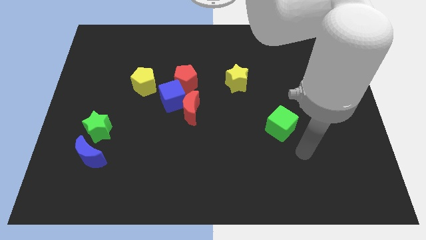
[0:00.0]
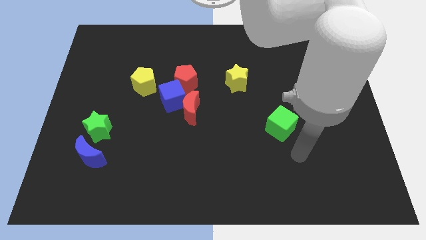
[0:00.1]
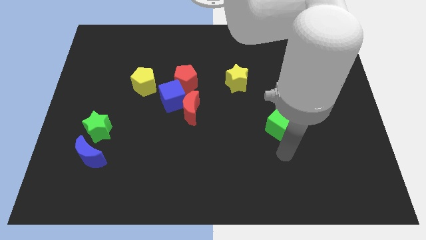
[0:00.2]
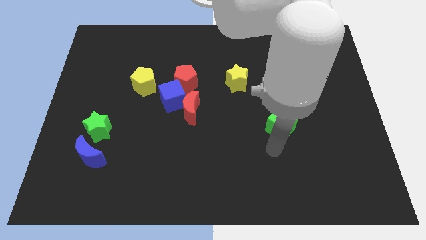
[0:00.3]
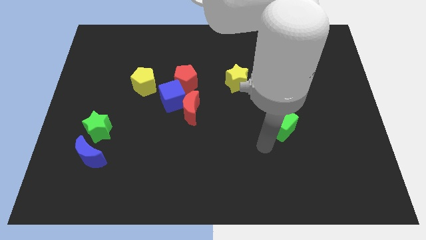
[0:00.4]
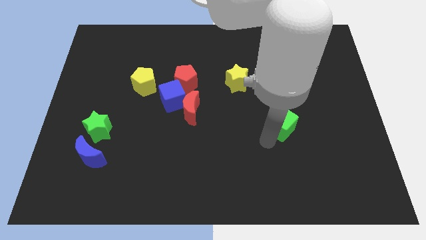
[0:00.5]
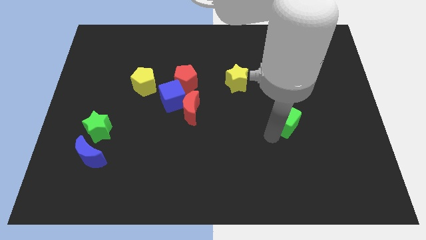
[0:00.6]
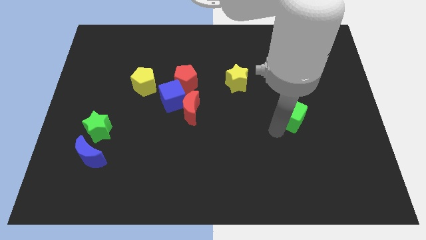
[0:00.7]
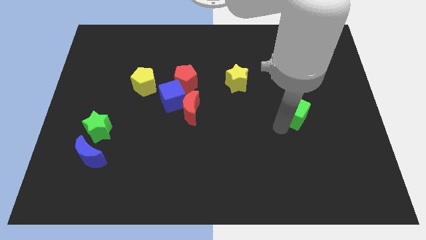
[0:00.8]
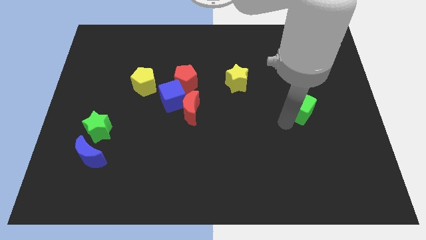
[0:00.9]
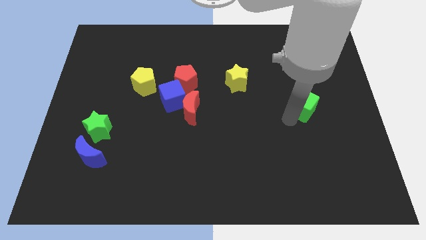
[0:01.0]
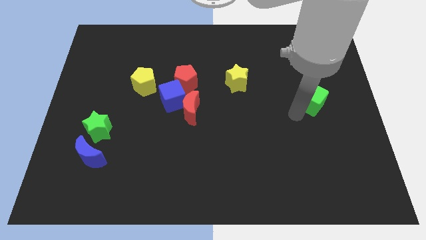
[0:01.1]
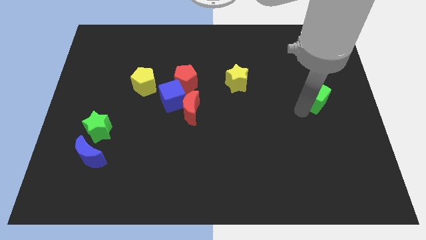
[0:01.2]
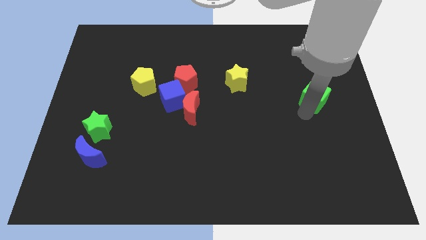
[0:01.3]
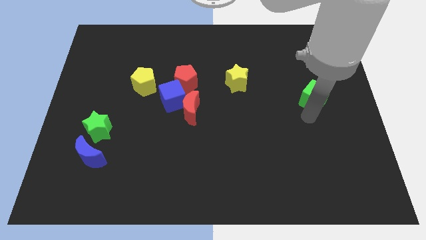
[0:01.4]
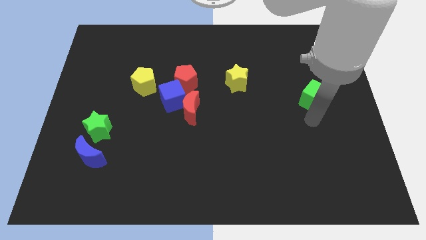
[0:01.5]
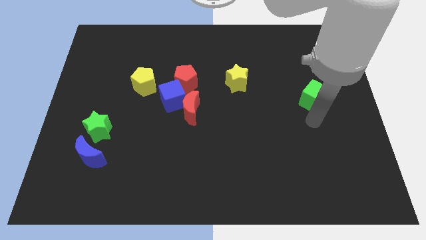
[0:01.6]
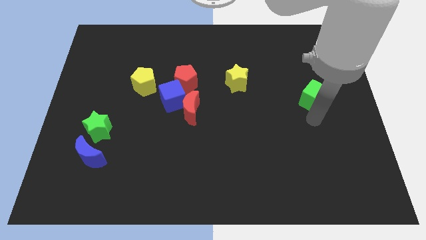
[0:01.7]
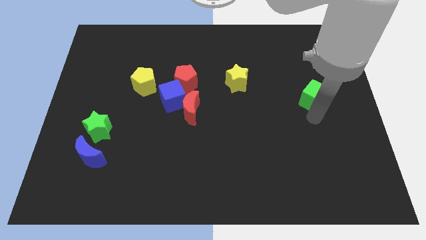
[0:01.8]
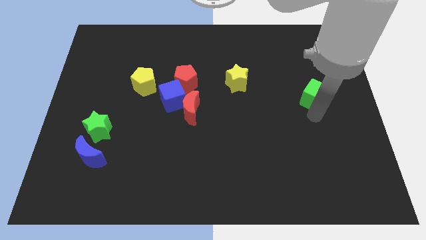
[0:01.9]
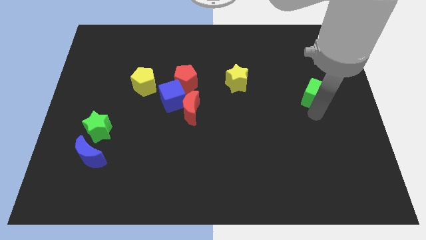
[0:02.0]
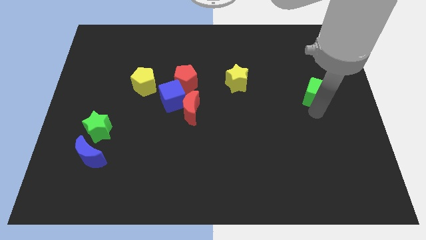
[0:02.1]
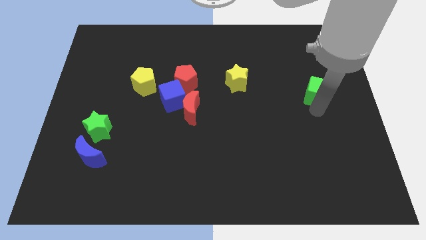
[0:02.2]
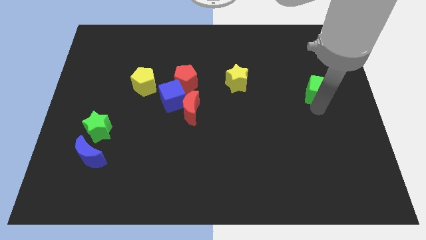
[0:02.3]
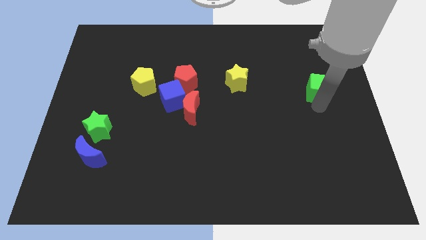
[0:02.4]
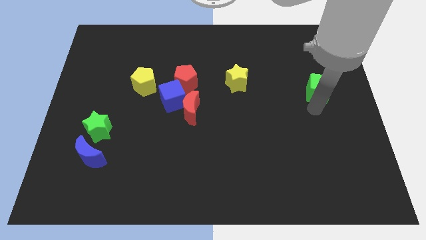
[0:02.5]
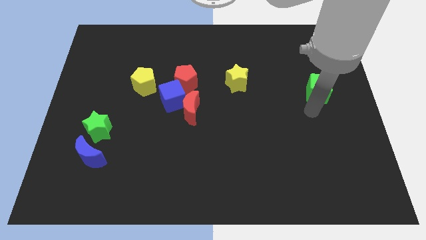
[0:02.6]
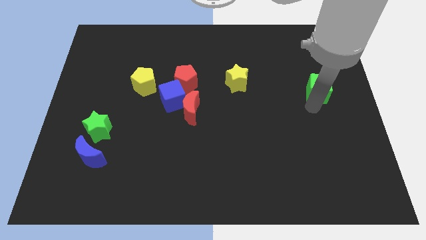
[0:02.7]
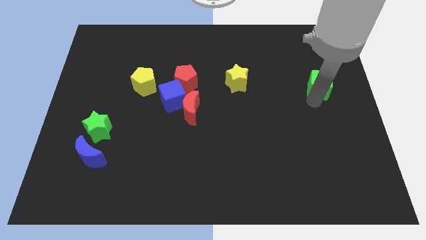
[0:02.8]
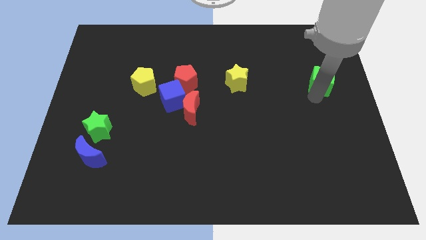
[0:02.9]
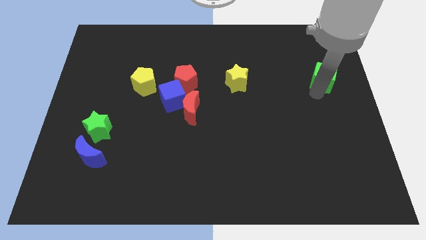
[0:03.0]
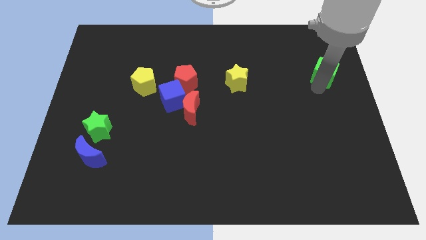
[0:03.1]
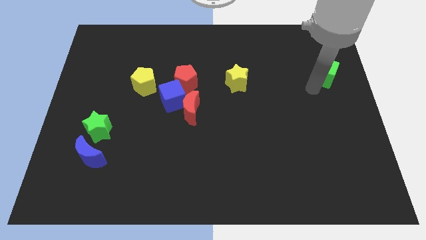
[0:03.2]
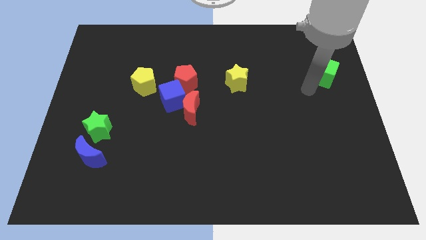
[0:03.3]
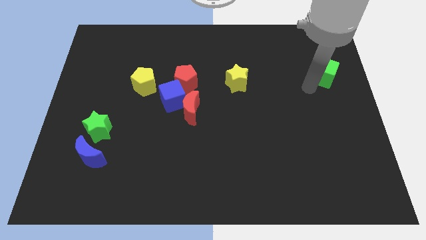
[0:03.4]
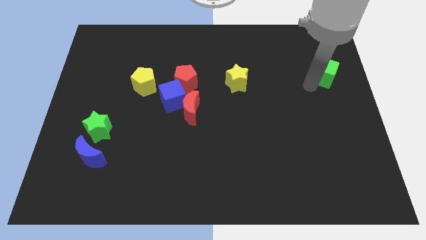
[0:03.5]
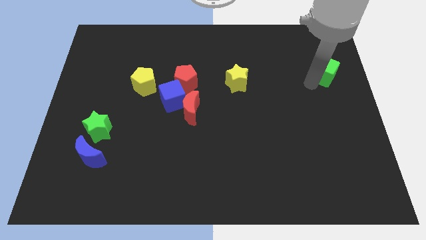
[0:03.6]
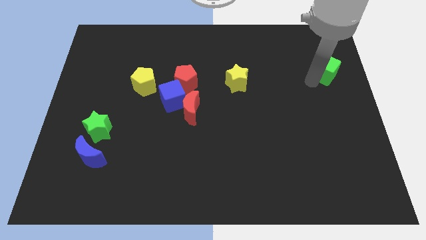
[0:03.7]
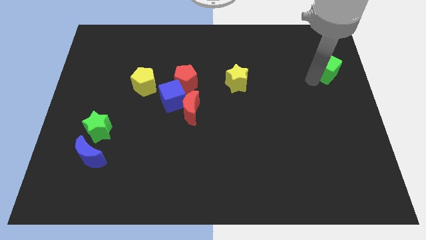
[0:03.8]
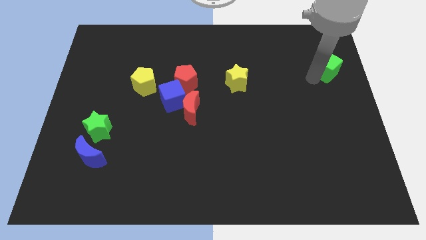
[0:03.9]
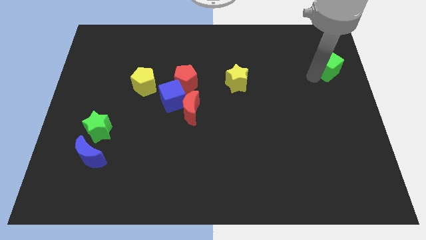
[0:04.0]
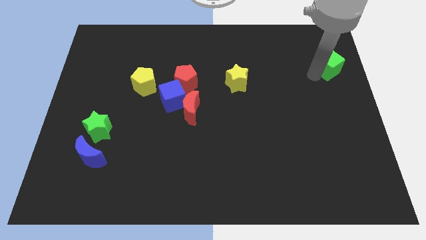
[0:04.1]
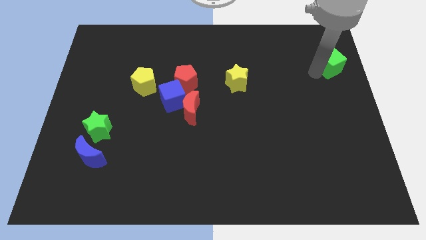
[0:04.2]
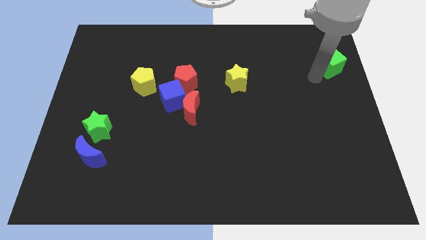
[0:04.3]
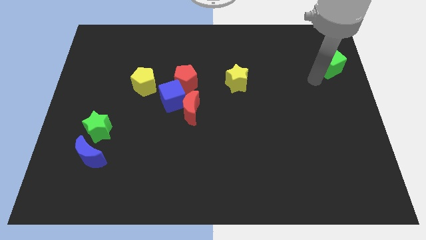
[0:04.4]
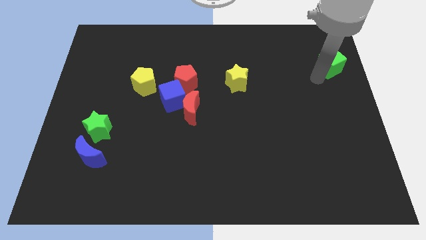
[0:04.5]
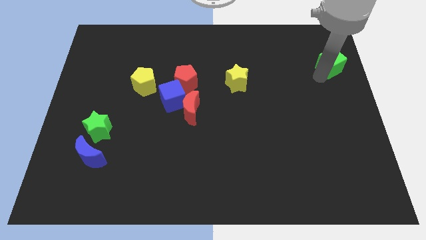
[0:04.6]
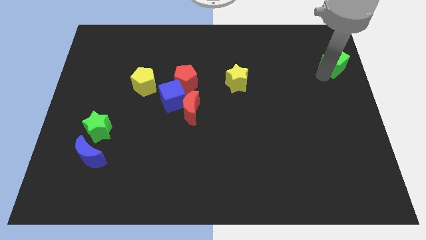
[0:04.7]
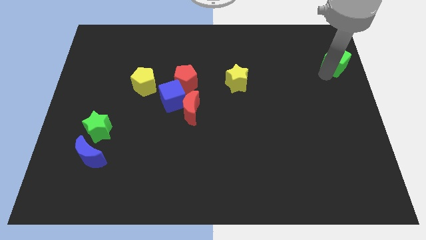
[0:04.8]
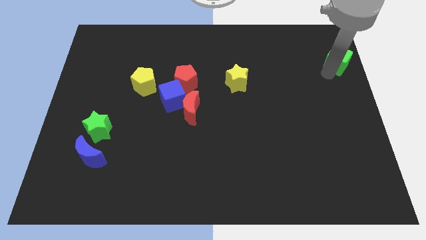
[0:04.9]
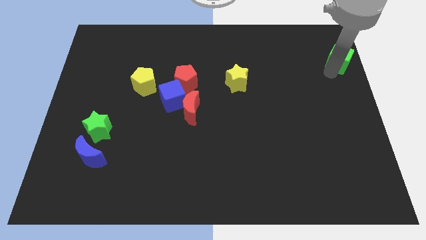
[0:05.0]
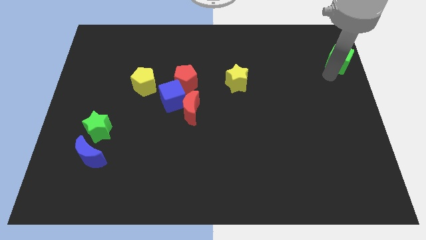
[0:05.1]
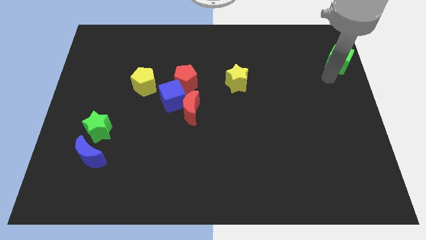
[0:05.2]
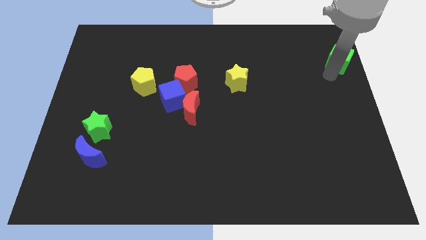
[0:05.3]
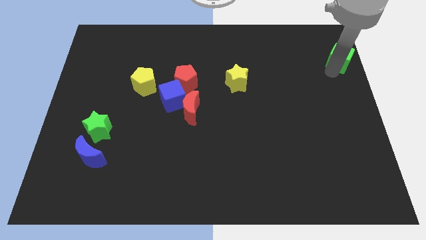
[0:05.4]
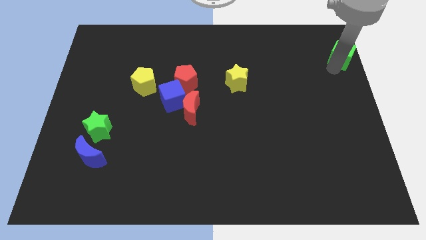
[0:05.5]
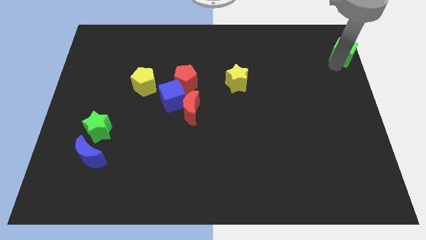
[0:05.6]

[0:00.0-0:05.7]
slide the green cube to the top right of the board

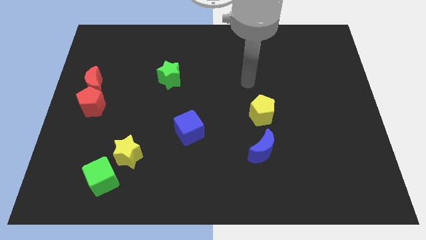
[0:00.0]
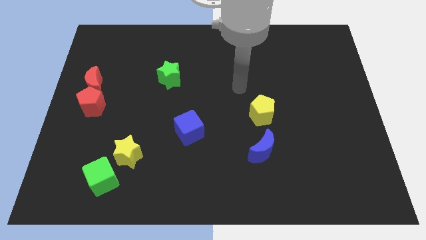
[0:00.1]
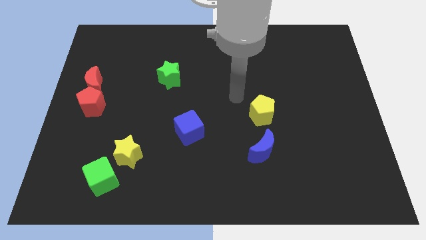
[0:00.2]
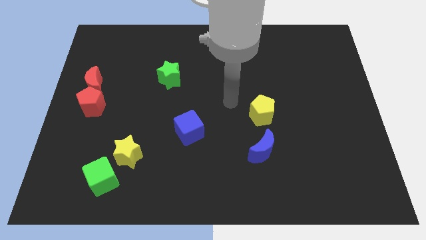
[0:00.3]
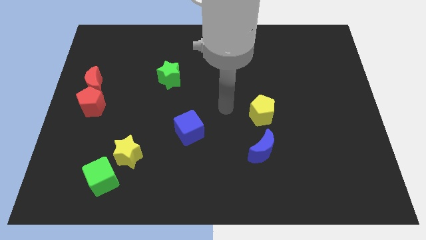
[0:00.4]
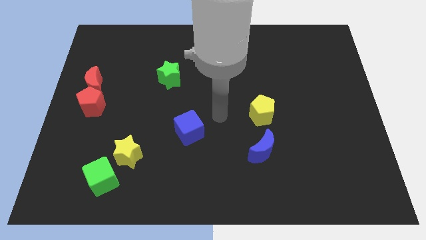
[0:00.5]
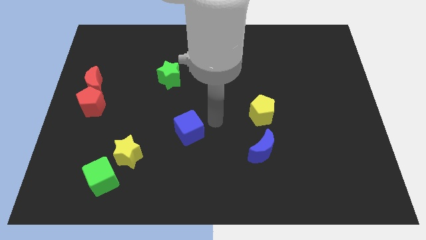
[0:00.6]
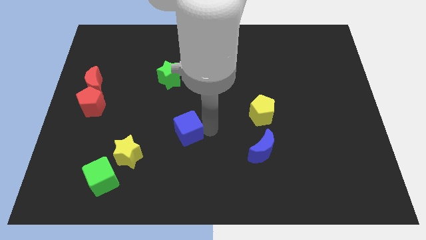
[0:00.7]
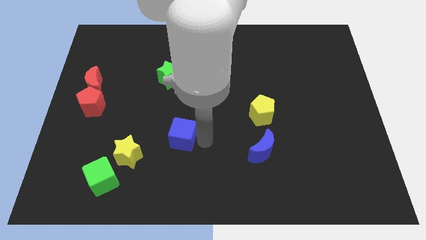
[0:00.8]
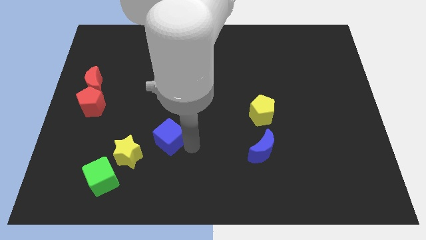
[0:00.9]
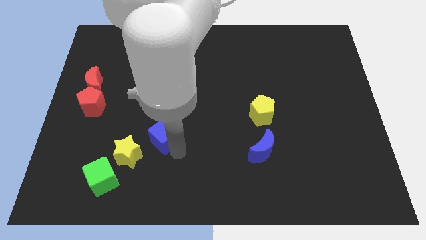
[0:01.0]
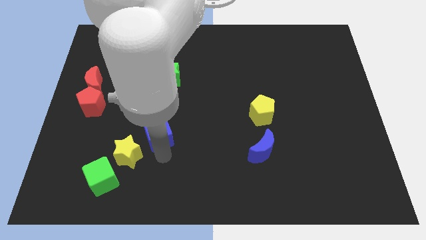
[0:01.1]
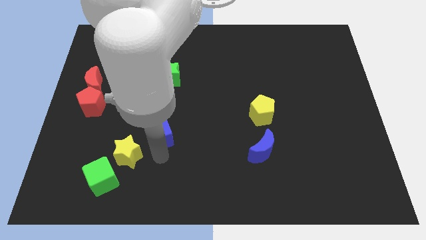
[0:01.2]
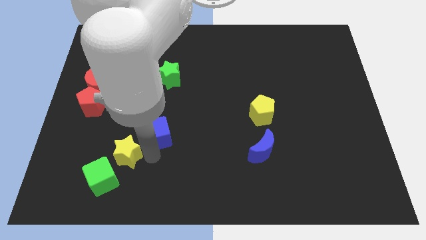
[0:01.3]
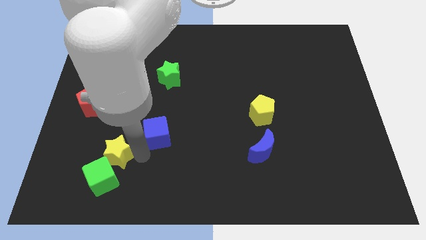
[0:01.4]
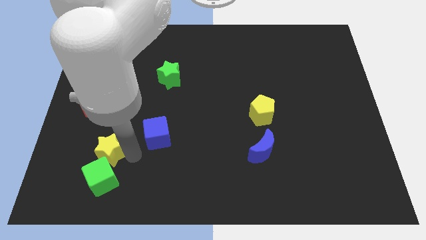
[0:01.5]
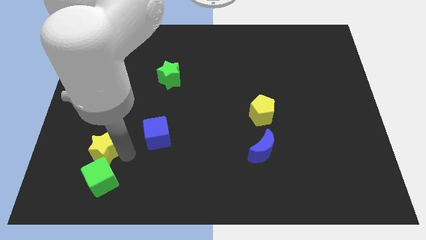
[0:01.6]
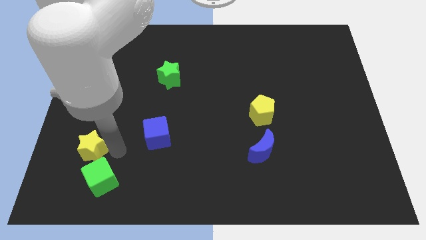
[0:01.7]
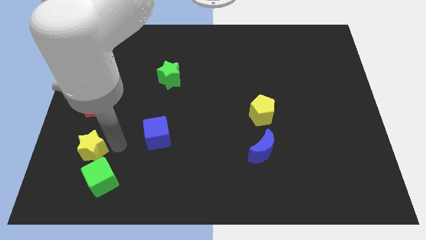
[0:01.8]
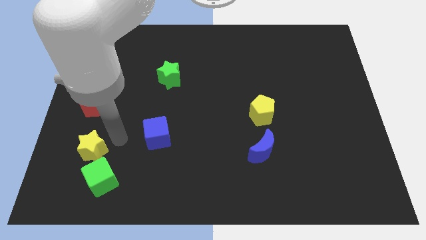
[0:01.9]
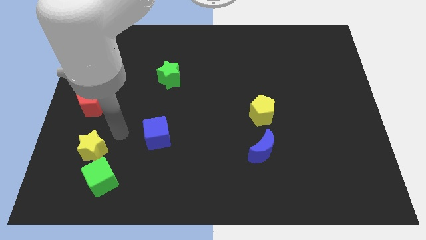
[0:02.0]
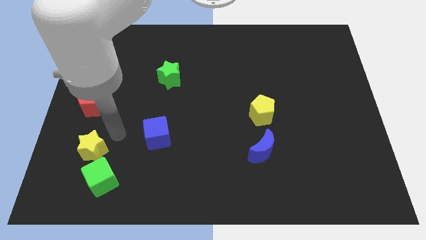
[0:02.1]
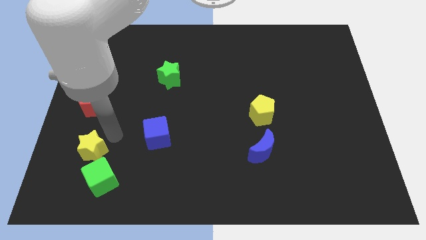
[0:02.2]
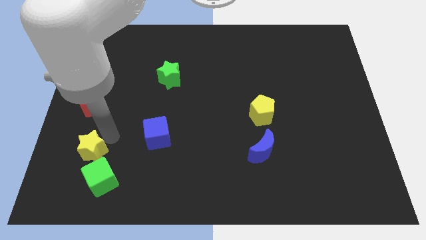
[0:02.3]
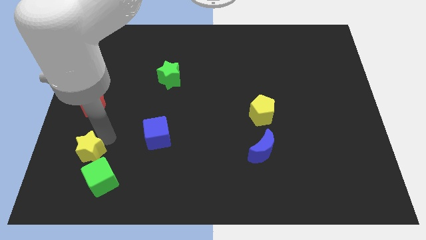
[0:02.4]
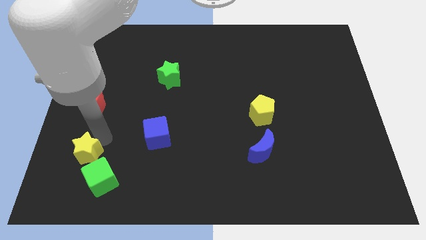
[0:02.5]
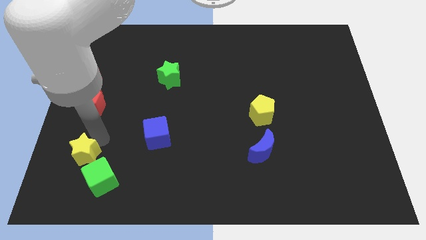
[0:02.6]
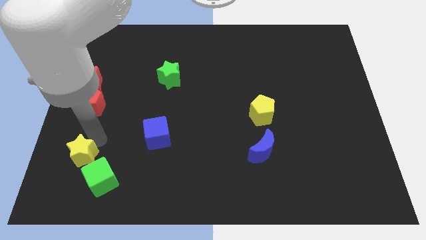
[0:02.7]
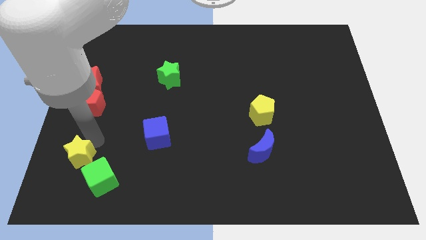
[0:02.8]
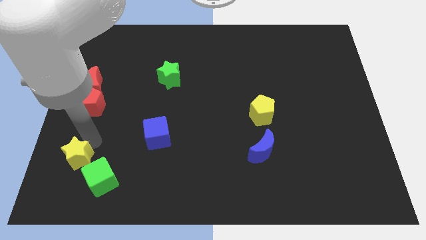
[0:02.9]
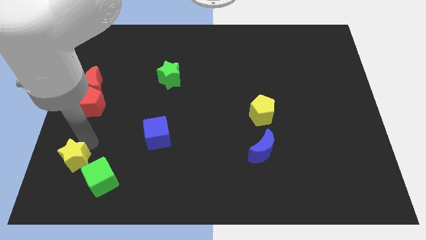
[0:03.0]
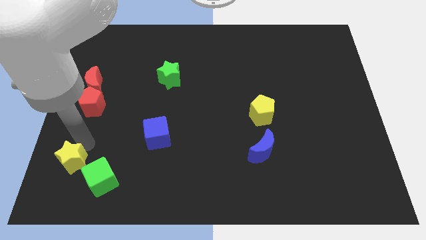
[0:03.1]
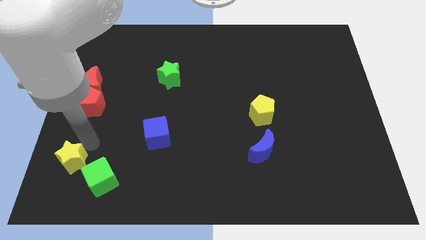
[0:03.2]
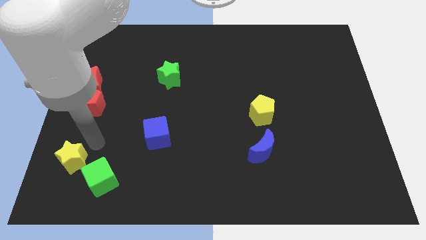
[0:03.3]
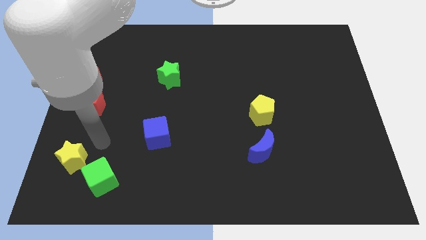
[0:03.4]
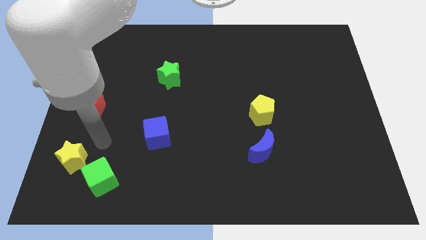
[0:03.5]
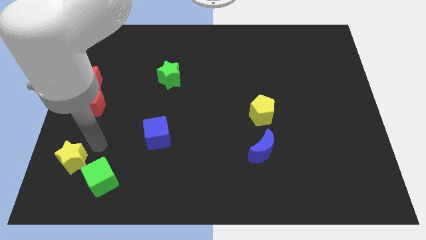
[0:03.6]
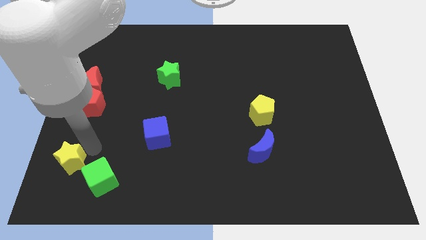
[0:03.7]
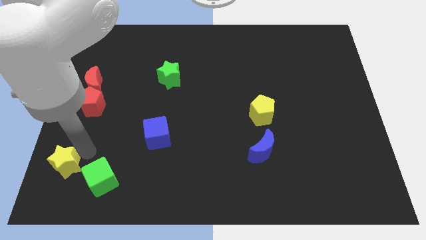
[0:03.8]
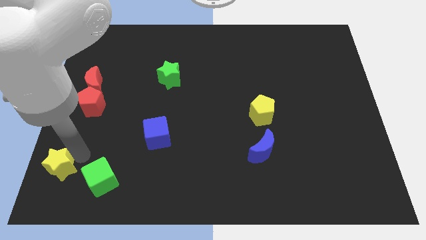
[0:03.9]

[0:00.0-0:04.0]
push the yellow star to the bottom left of the board
